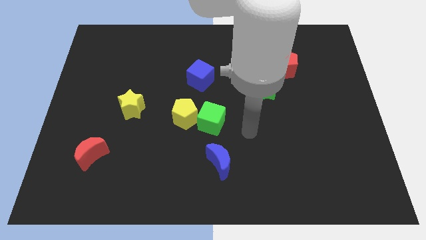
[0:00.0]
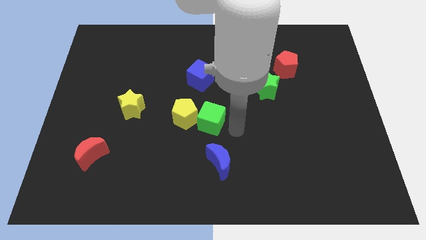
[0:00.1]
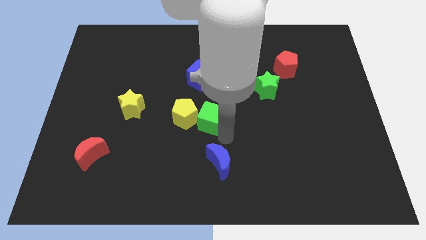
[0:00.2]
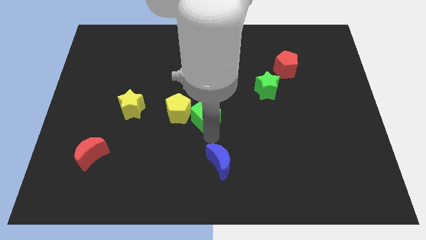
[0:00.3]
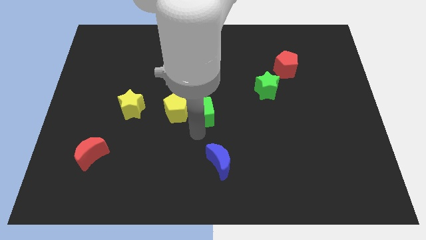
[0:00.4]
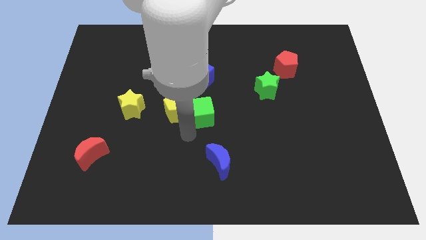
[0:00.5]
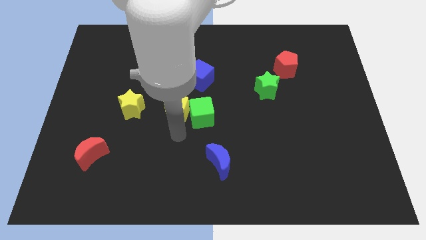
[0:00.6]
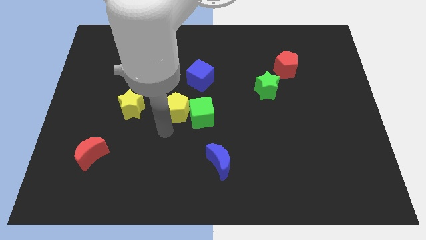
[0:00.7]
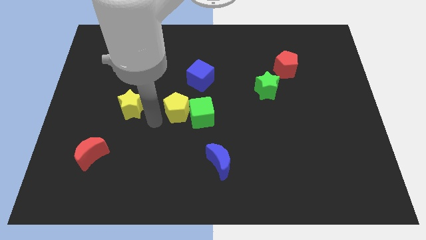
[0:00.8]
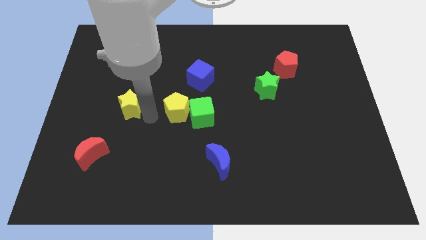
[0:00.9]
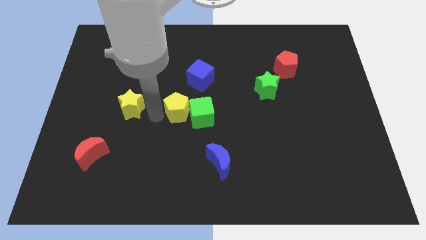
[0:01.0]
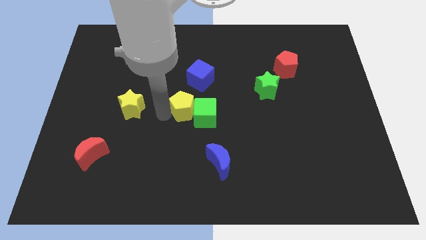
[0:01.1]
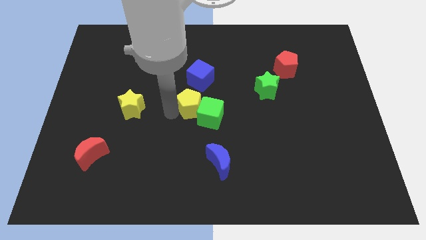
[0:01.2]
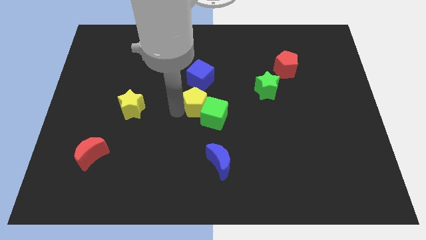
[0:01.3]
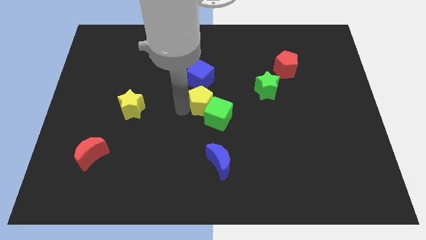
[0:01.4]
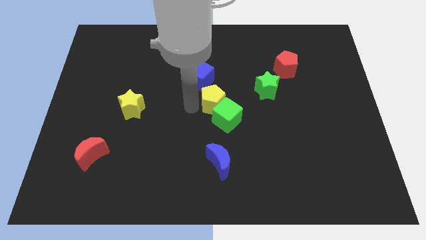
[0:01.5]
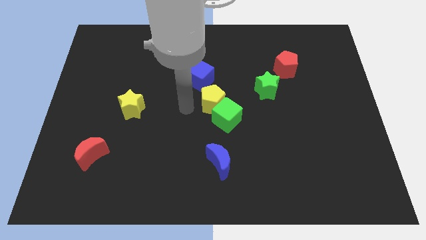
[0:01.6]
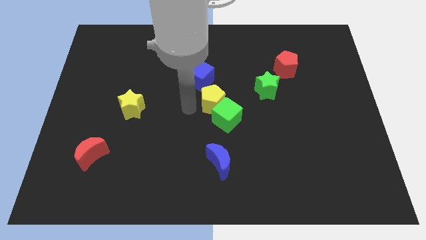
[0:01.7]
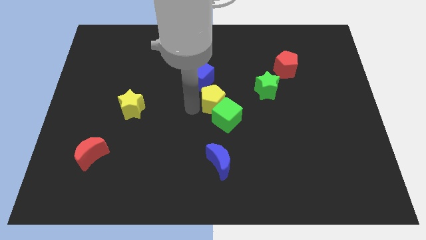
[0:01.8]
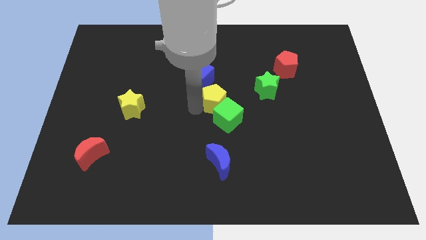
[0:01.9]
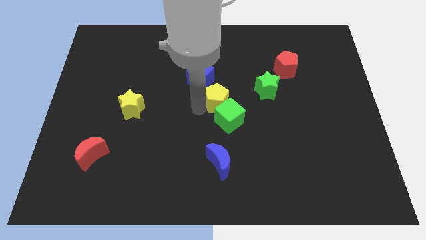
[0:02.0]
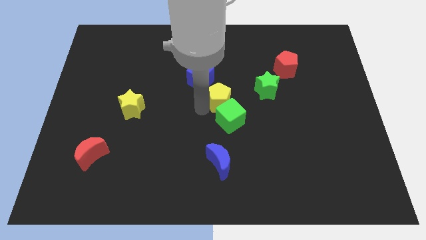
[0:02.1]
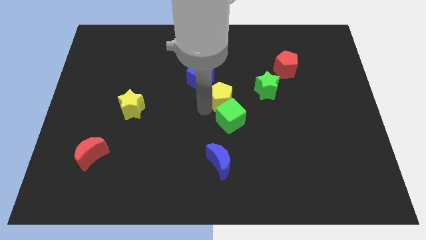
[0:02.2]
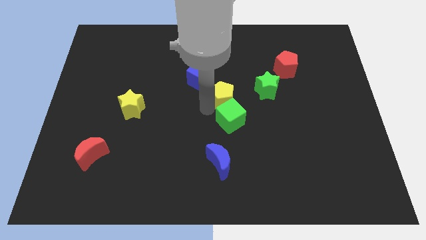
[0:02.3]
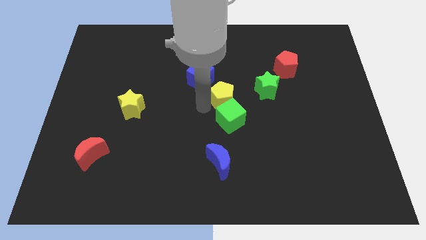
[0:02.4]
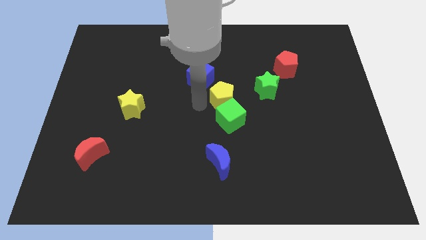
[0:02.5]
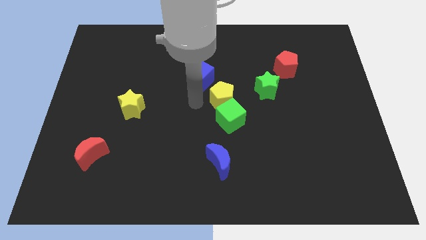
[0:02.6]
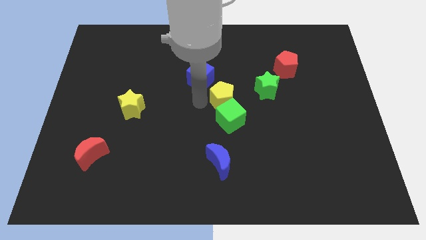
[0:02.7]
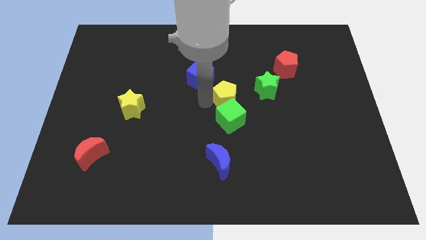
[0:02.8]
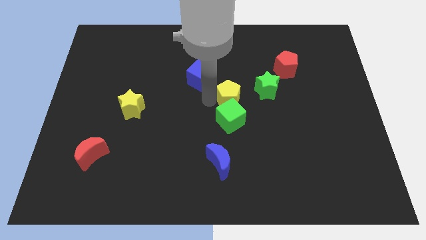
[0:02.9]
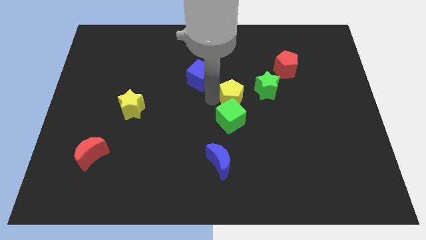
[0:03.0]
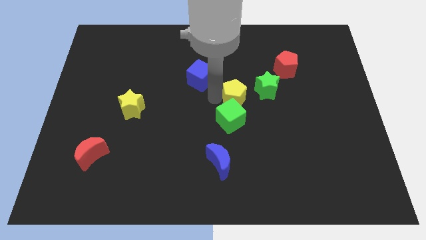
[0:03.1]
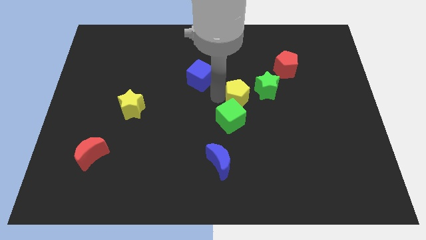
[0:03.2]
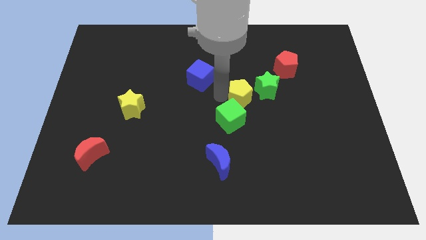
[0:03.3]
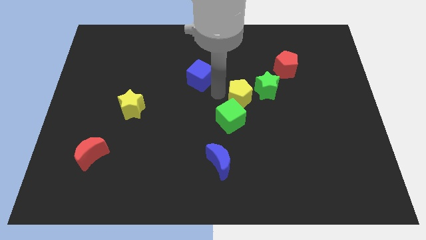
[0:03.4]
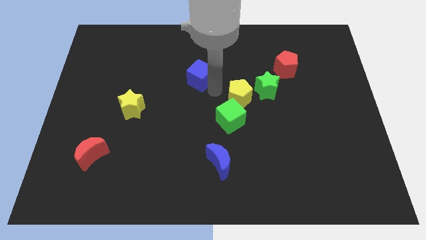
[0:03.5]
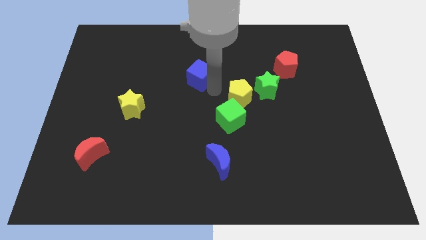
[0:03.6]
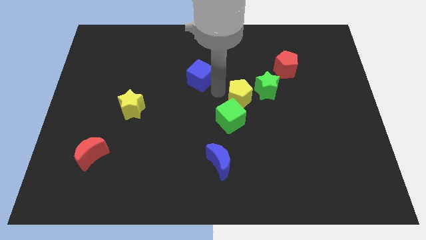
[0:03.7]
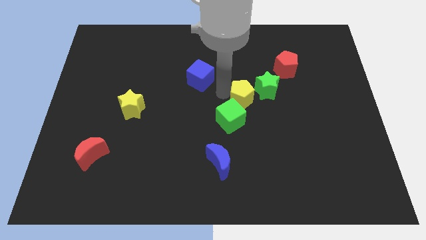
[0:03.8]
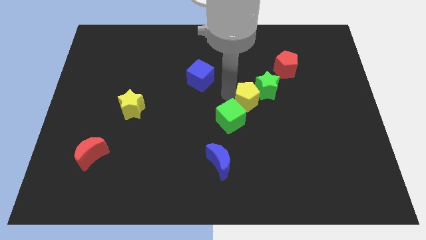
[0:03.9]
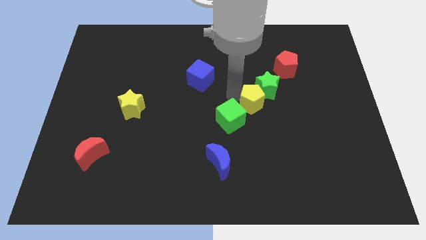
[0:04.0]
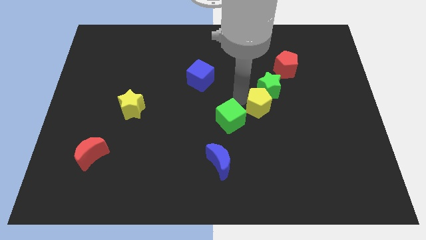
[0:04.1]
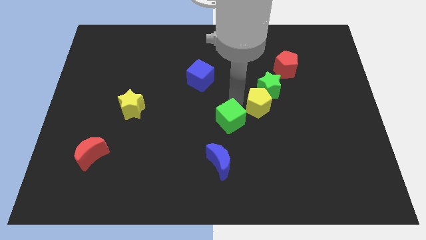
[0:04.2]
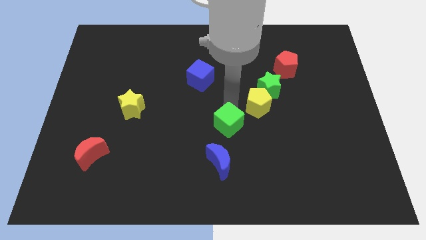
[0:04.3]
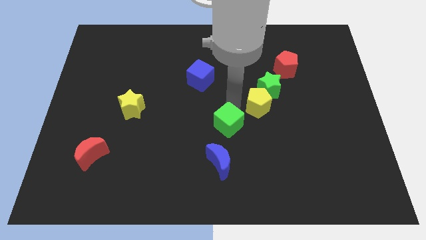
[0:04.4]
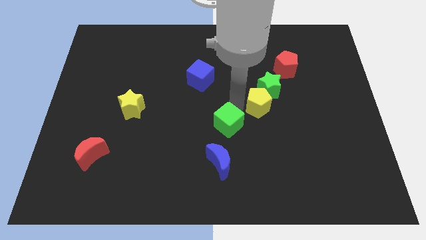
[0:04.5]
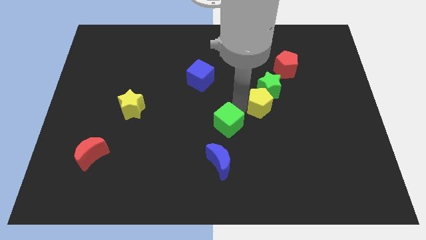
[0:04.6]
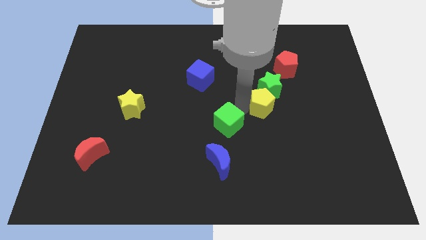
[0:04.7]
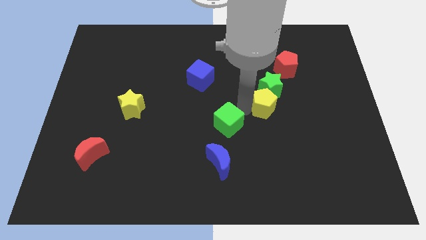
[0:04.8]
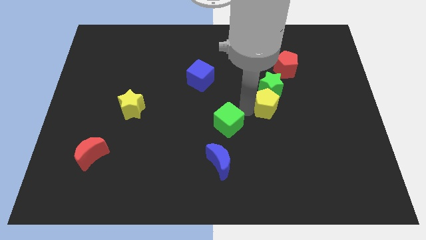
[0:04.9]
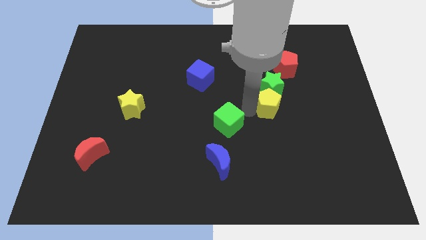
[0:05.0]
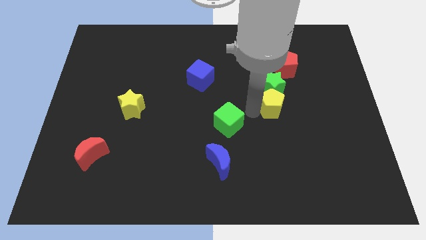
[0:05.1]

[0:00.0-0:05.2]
push the yellow pentagon right

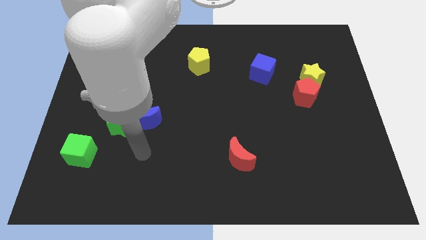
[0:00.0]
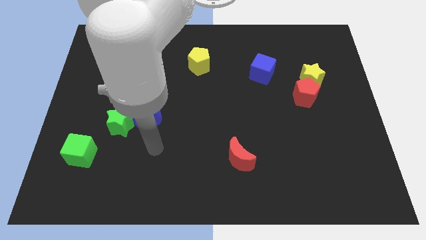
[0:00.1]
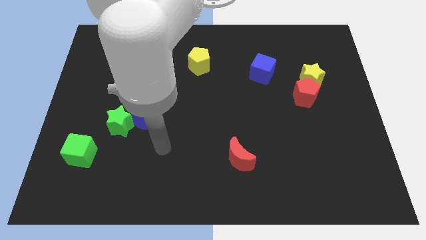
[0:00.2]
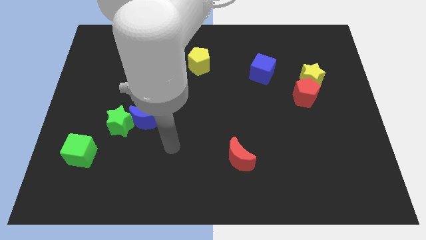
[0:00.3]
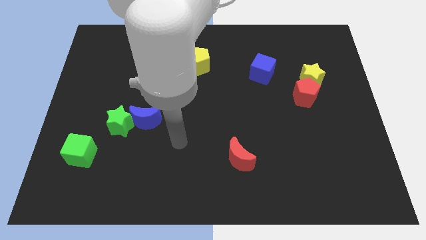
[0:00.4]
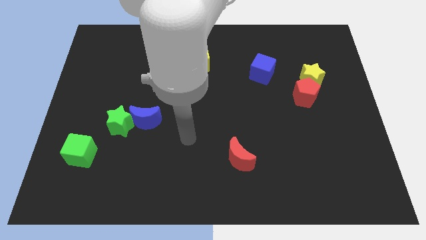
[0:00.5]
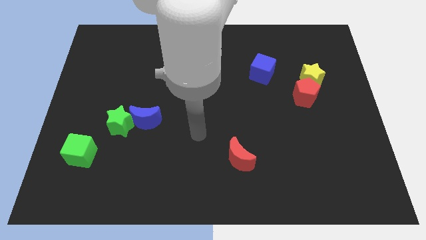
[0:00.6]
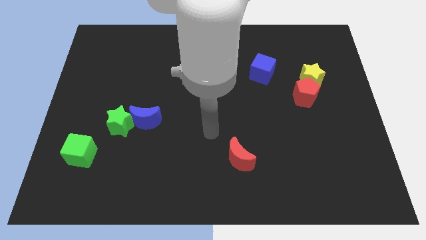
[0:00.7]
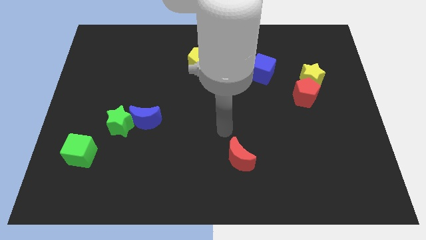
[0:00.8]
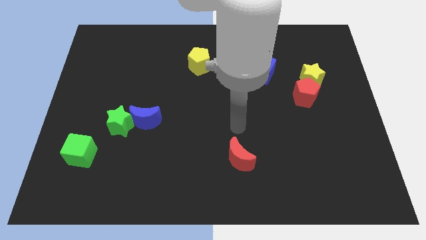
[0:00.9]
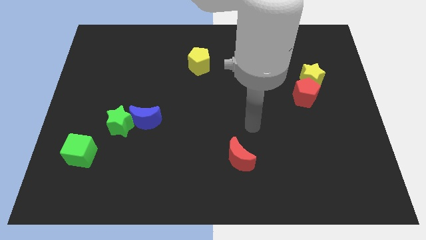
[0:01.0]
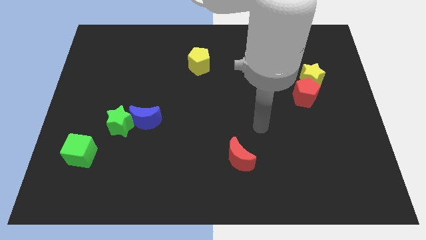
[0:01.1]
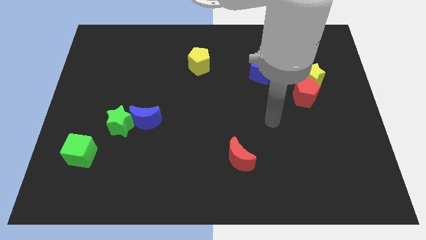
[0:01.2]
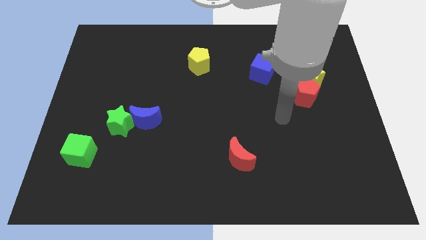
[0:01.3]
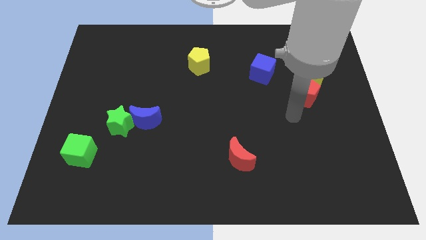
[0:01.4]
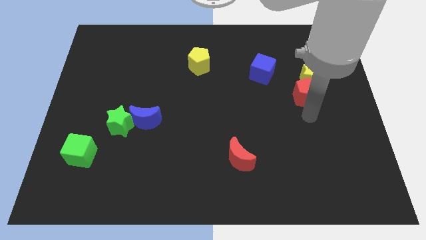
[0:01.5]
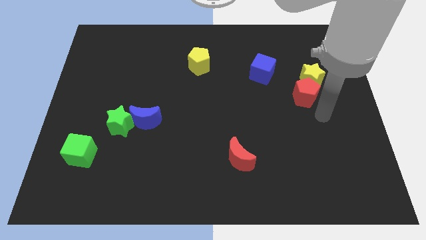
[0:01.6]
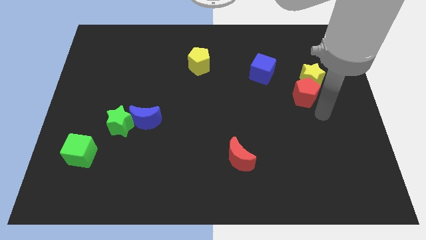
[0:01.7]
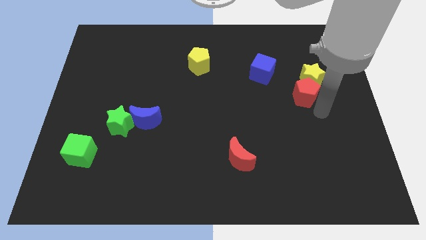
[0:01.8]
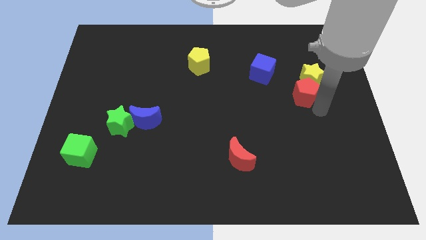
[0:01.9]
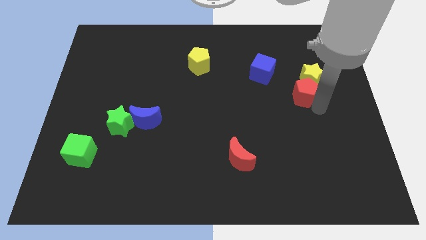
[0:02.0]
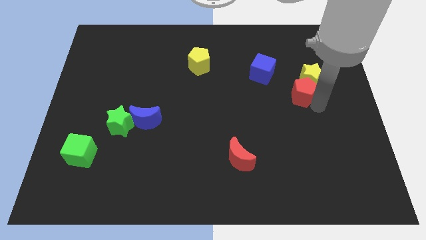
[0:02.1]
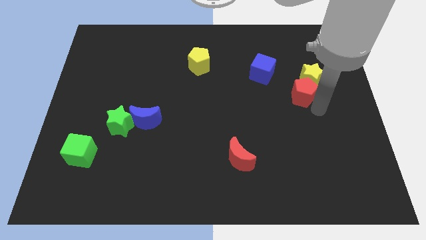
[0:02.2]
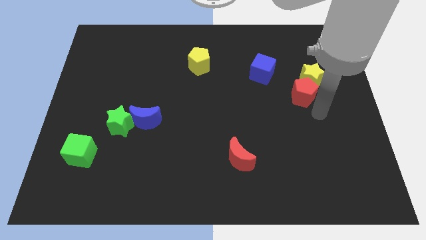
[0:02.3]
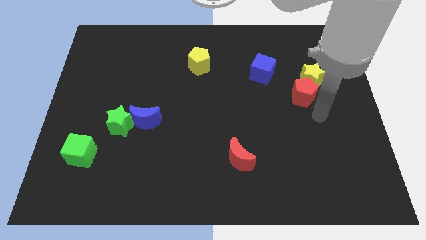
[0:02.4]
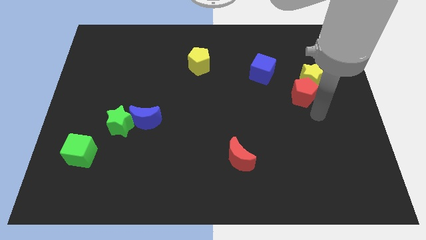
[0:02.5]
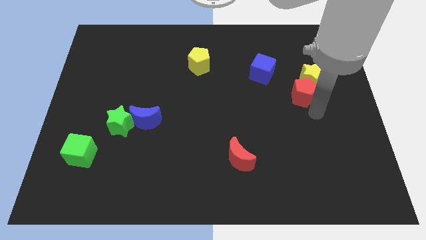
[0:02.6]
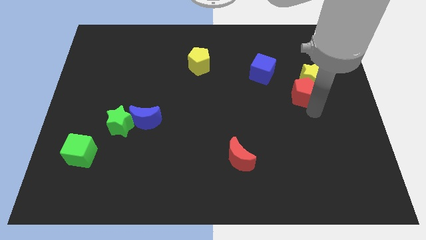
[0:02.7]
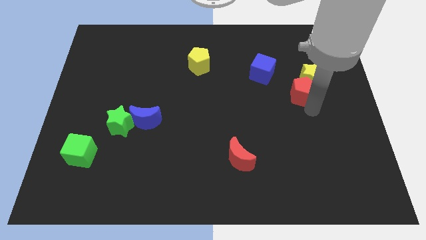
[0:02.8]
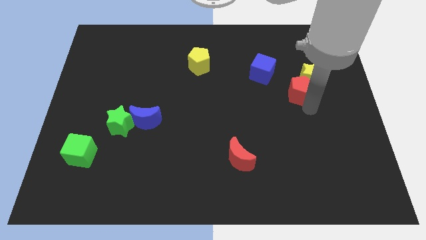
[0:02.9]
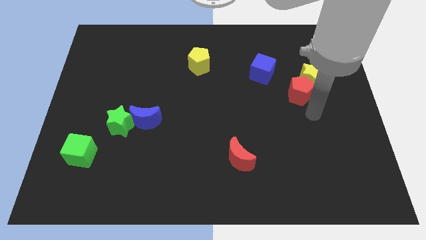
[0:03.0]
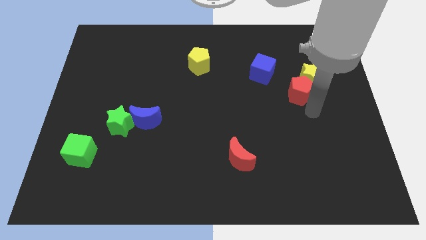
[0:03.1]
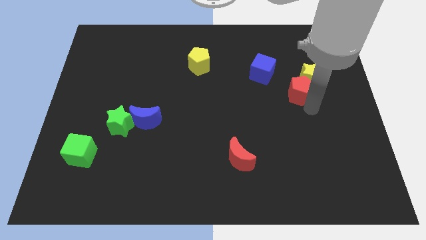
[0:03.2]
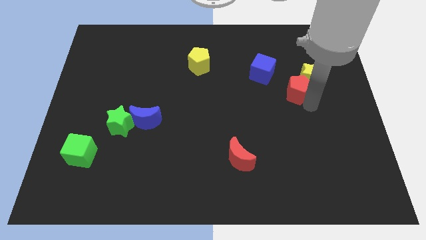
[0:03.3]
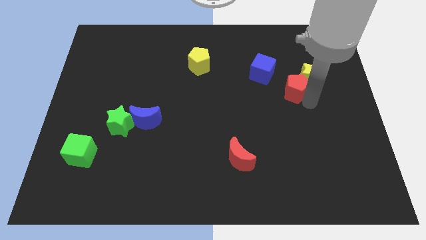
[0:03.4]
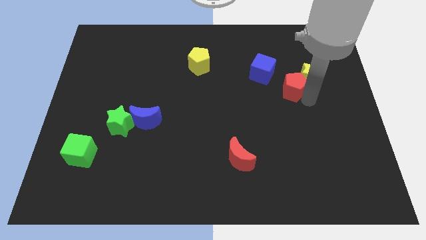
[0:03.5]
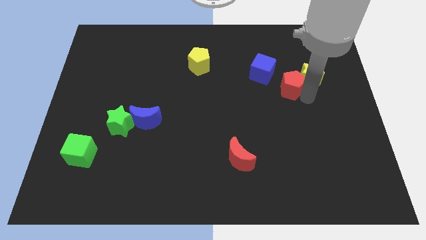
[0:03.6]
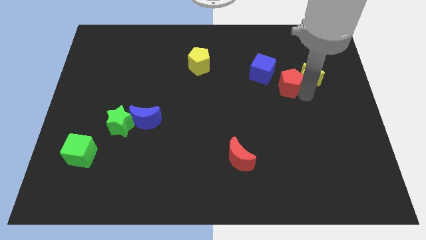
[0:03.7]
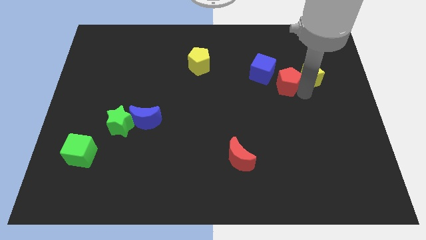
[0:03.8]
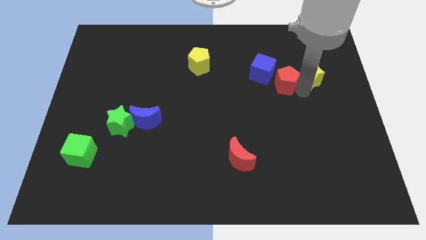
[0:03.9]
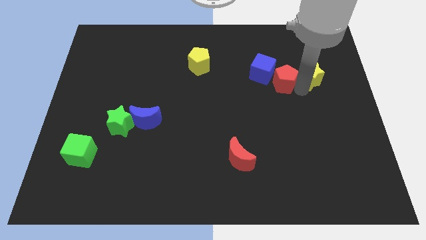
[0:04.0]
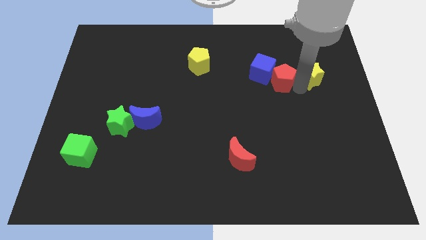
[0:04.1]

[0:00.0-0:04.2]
slightly slide the red pentagon up and then left
